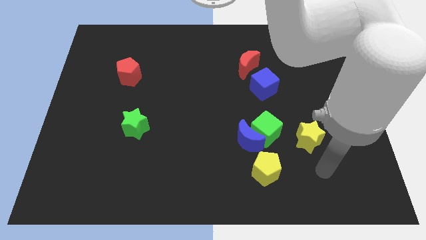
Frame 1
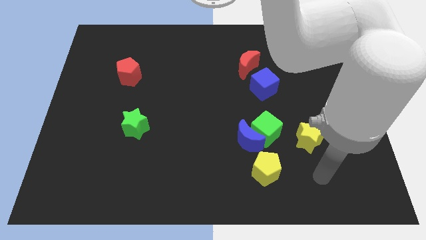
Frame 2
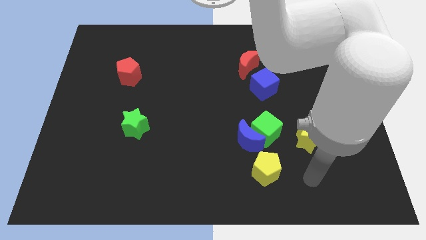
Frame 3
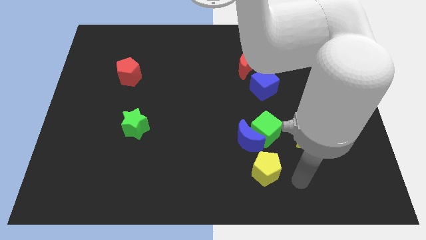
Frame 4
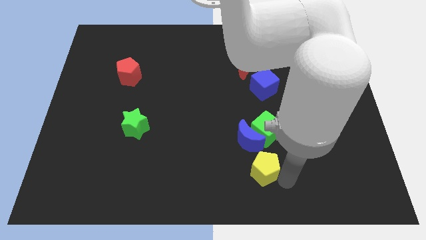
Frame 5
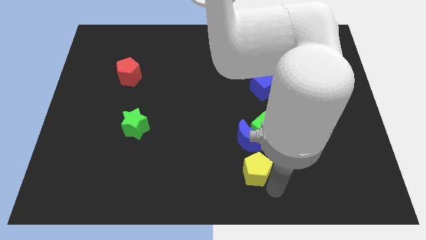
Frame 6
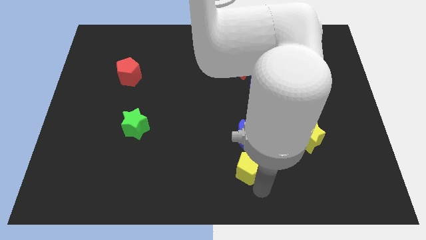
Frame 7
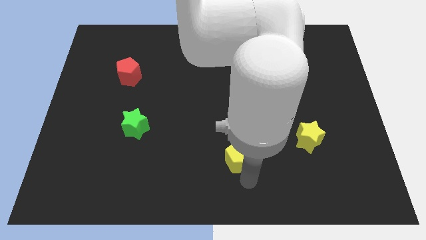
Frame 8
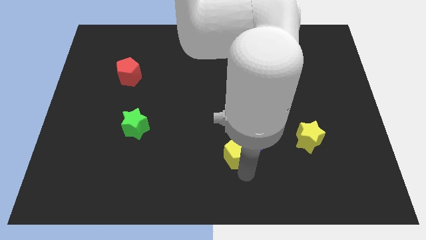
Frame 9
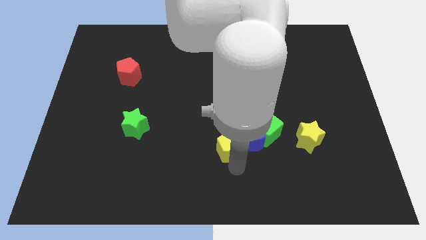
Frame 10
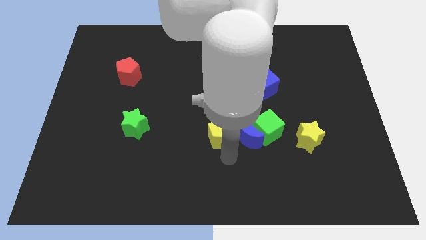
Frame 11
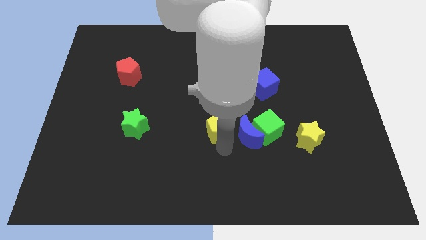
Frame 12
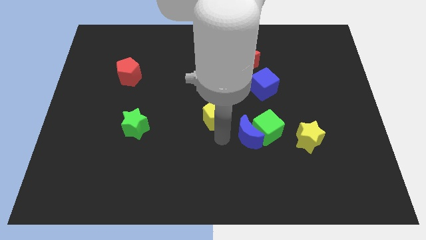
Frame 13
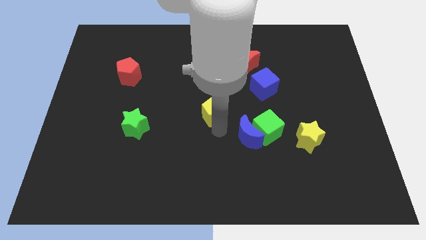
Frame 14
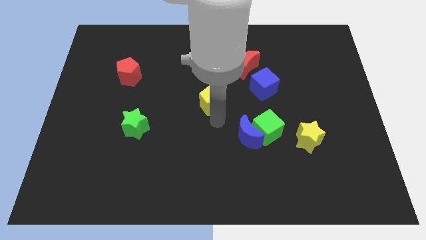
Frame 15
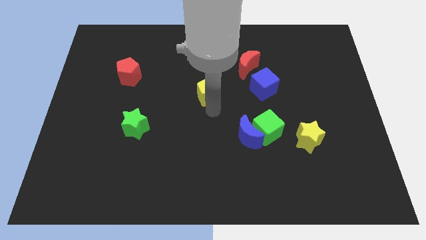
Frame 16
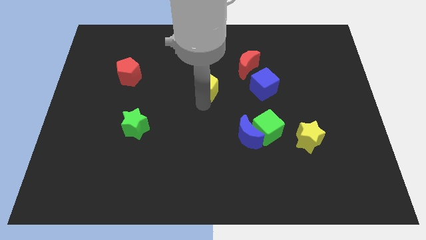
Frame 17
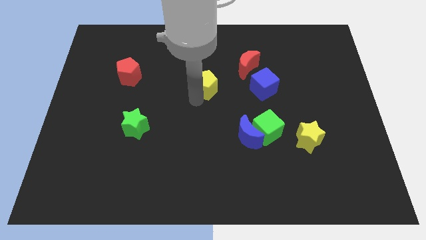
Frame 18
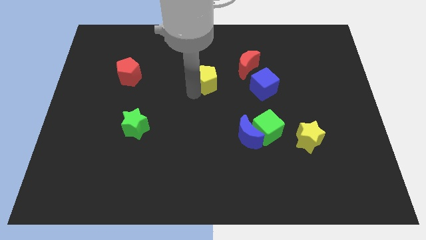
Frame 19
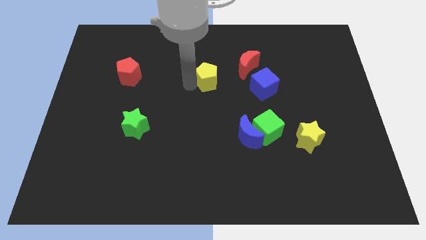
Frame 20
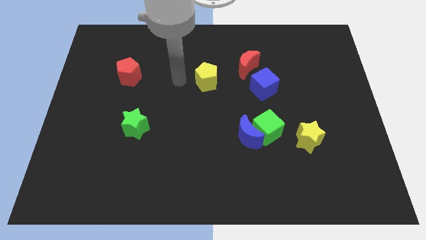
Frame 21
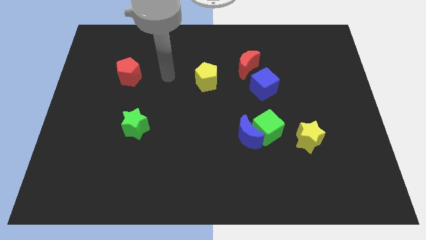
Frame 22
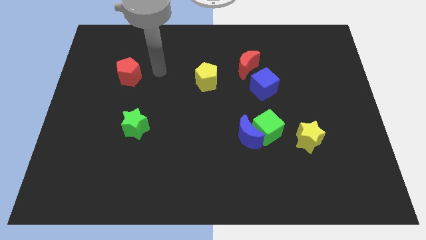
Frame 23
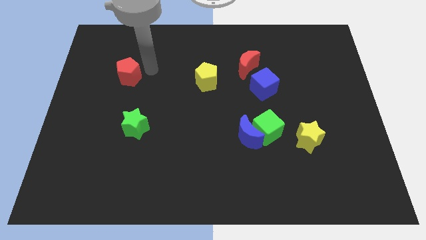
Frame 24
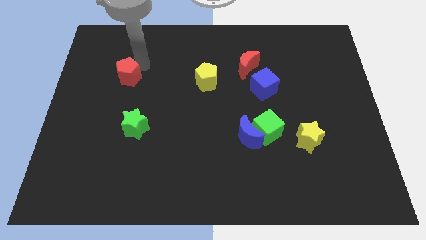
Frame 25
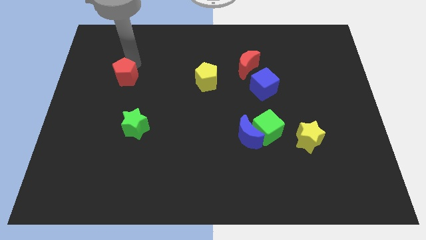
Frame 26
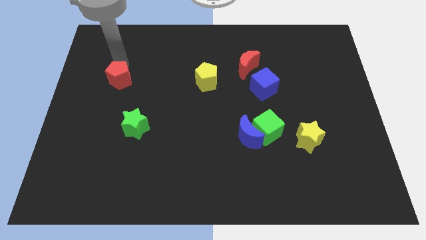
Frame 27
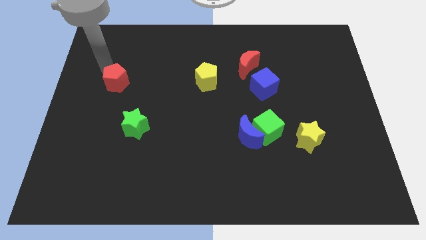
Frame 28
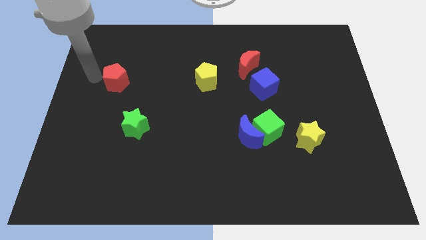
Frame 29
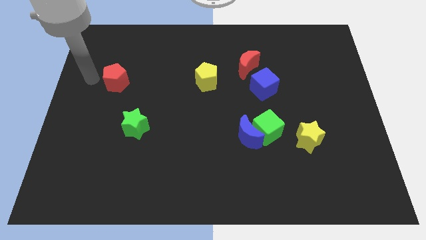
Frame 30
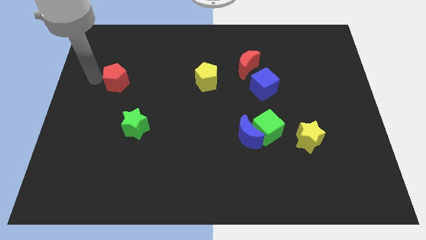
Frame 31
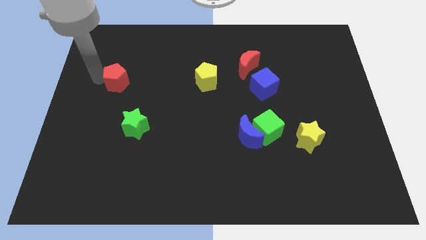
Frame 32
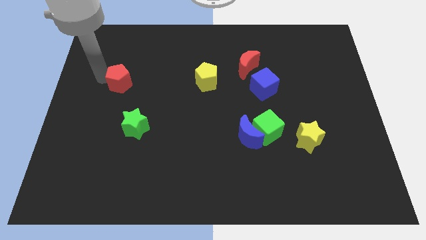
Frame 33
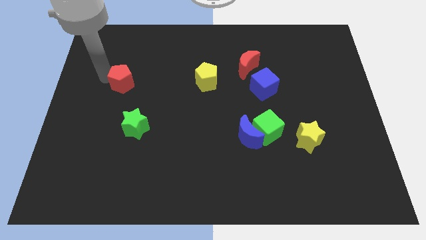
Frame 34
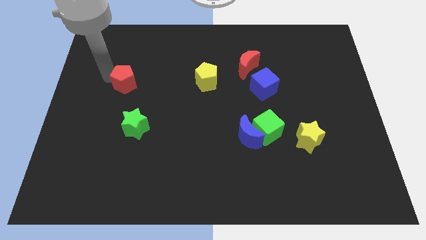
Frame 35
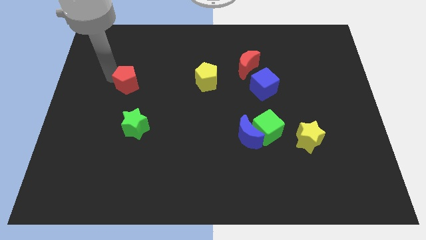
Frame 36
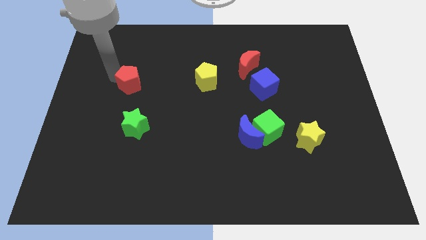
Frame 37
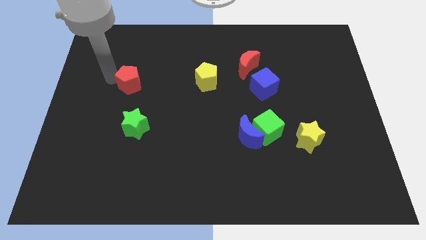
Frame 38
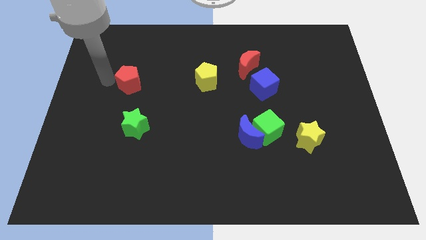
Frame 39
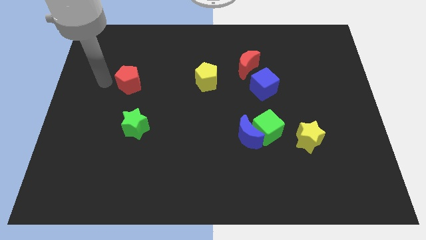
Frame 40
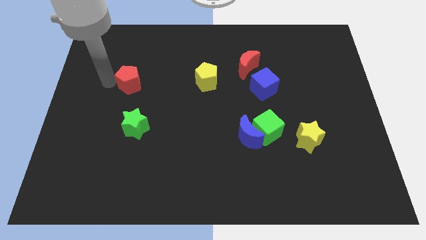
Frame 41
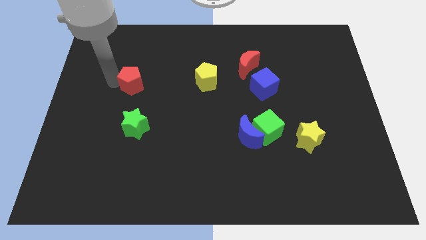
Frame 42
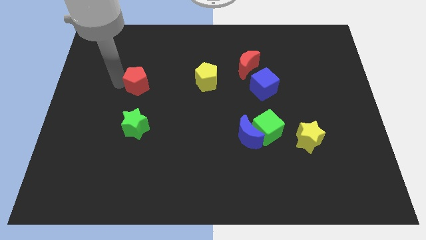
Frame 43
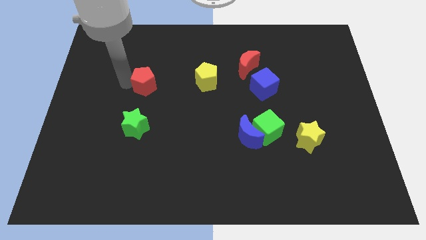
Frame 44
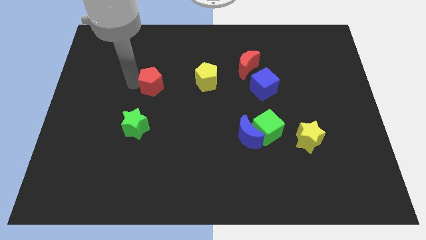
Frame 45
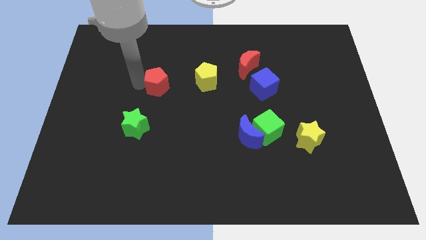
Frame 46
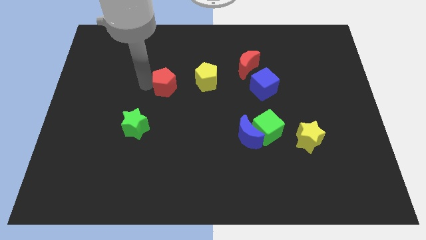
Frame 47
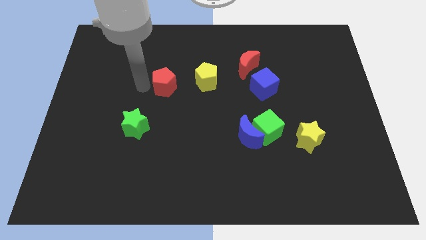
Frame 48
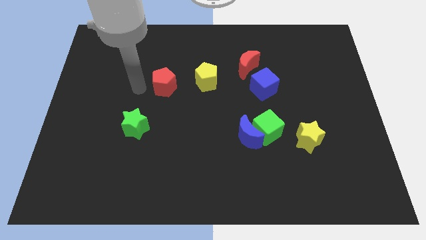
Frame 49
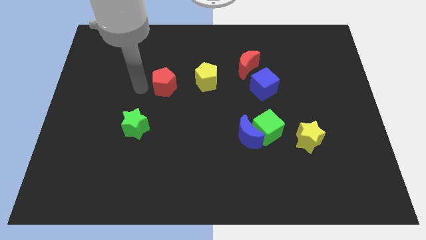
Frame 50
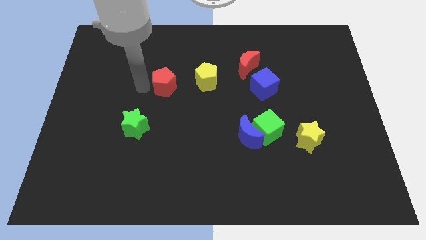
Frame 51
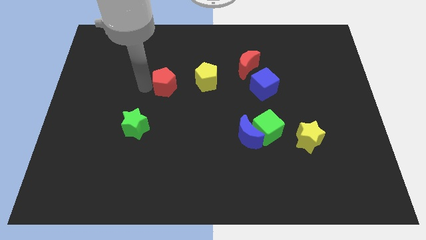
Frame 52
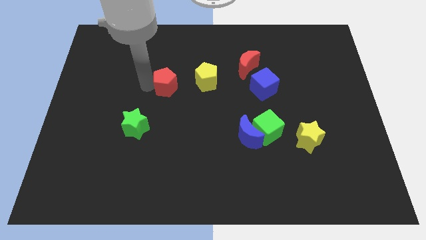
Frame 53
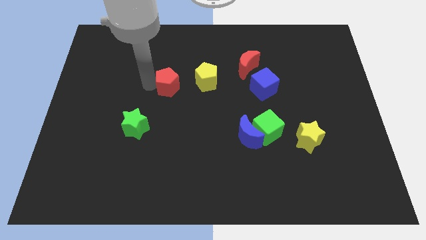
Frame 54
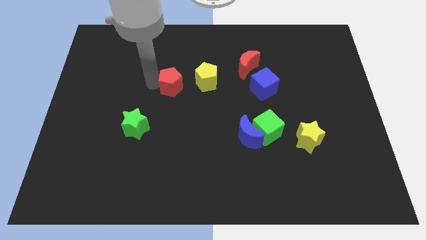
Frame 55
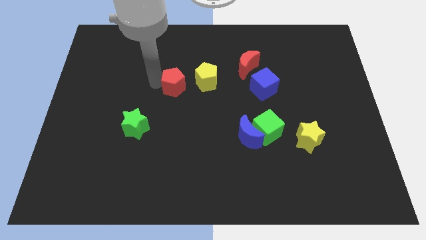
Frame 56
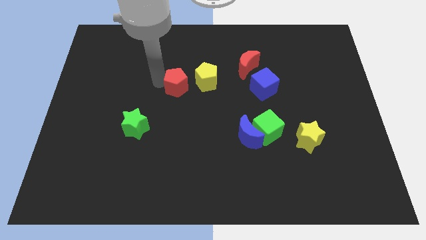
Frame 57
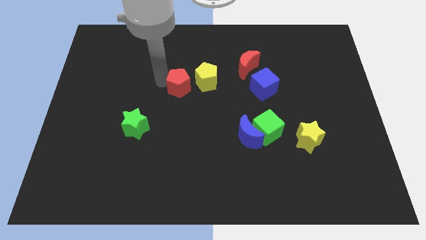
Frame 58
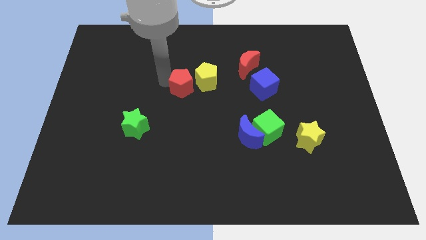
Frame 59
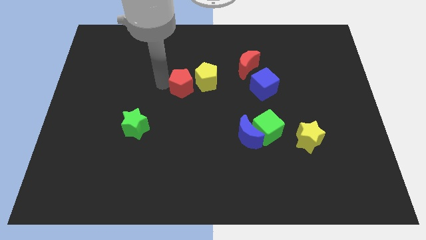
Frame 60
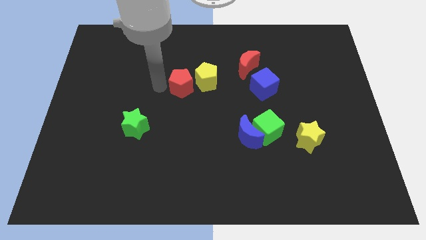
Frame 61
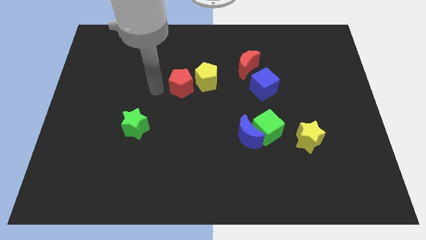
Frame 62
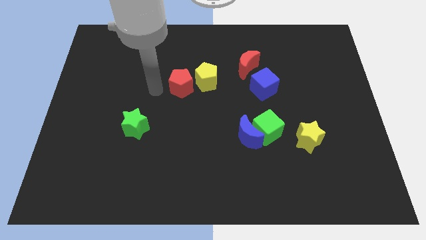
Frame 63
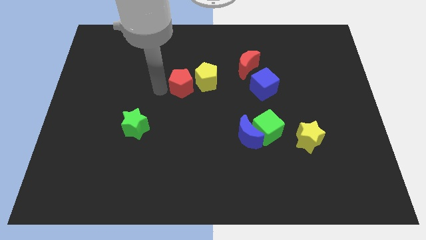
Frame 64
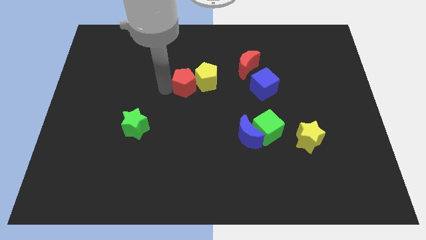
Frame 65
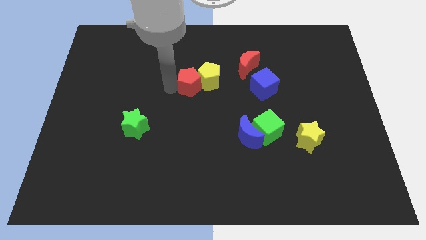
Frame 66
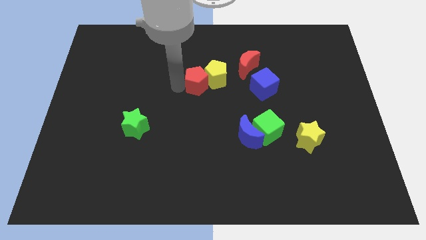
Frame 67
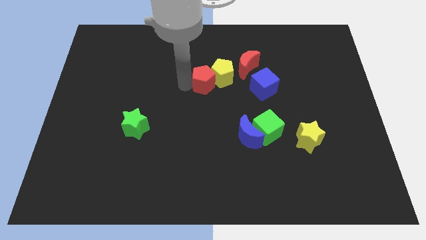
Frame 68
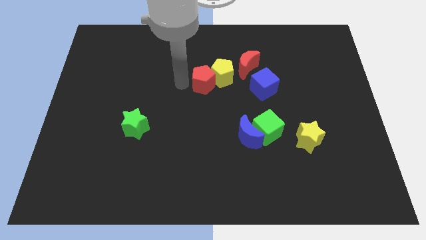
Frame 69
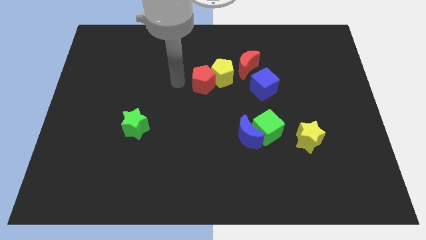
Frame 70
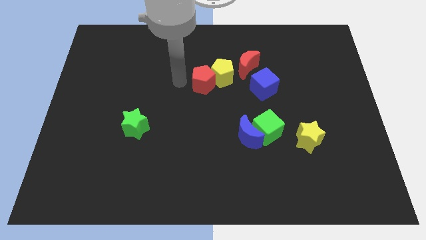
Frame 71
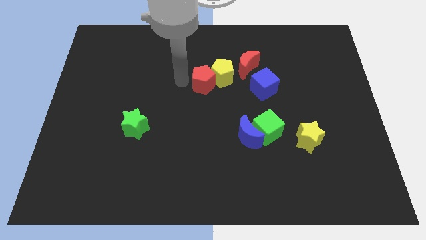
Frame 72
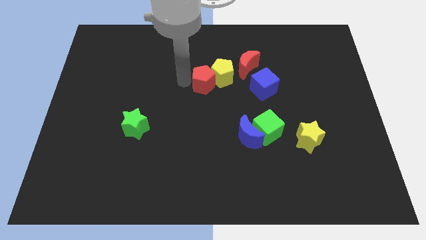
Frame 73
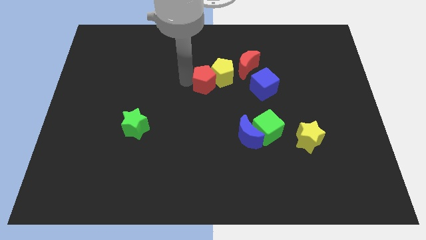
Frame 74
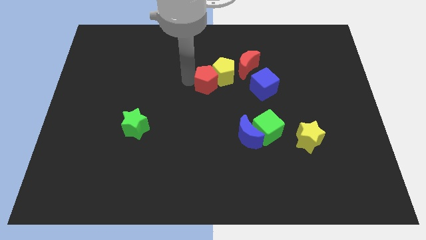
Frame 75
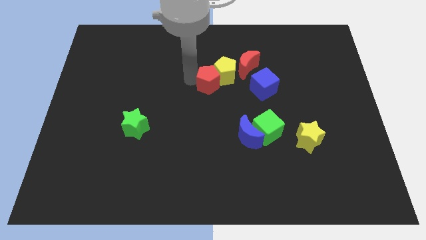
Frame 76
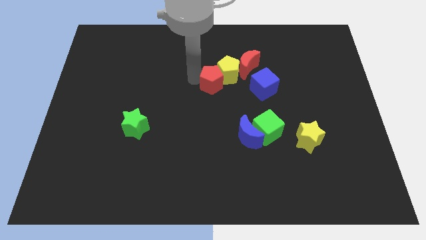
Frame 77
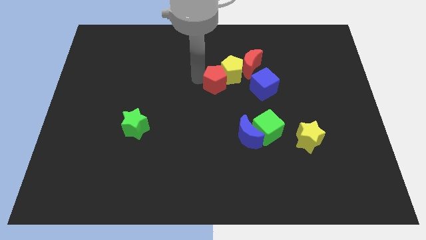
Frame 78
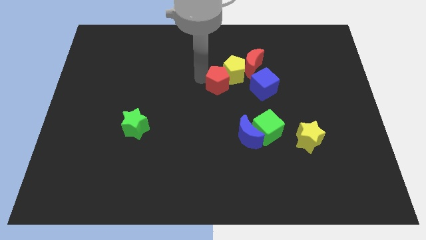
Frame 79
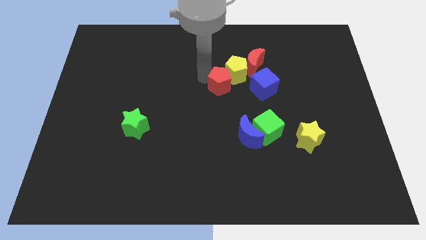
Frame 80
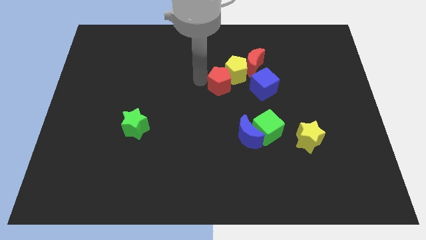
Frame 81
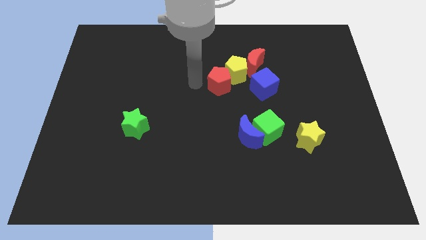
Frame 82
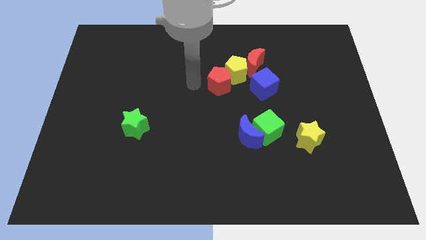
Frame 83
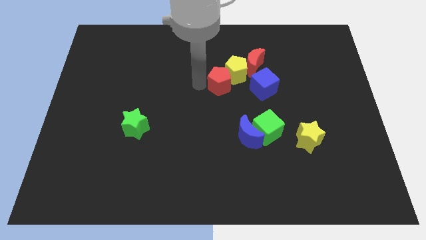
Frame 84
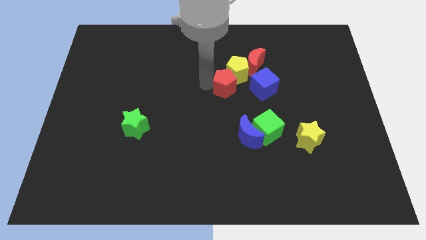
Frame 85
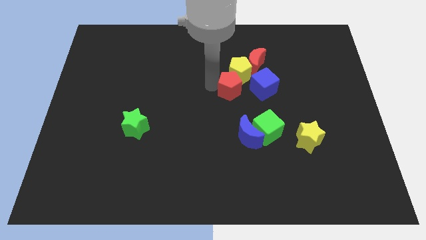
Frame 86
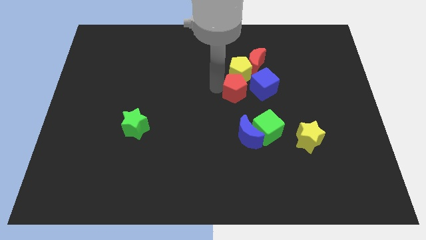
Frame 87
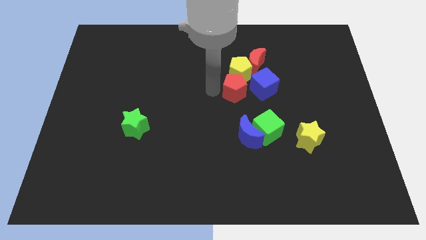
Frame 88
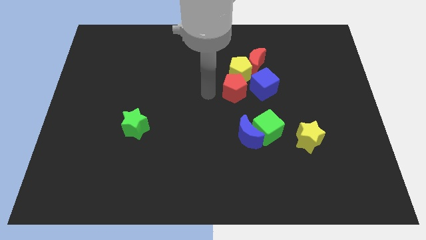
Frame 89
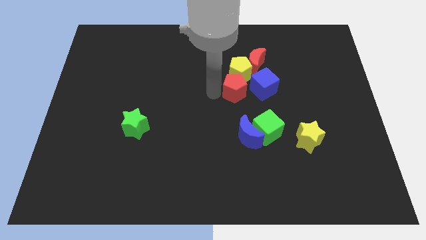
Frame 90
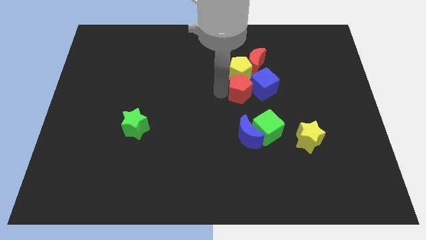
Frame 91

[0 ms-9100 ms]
put the red pentagon next to the blue cube
